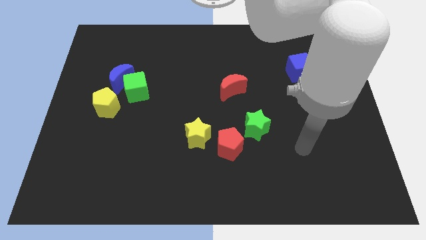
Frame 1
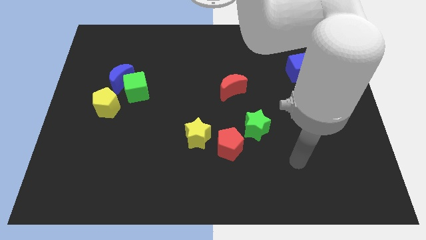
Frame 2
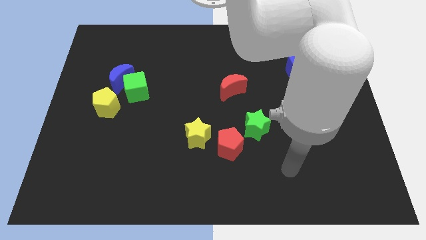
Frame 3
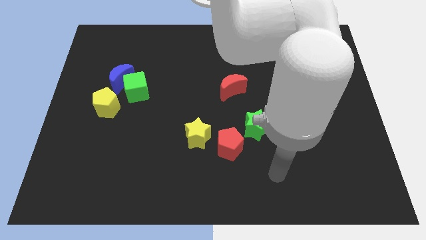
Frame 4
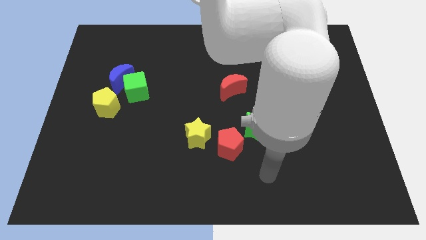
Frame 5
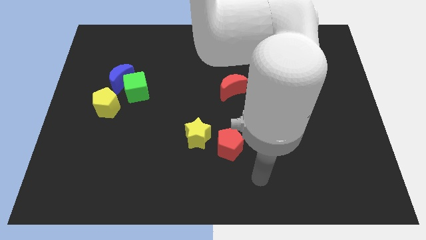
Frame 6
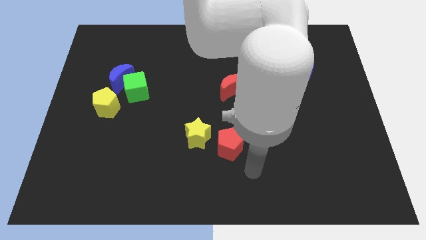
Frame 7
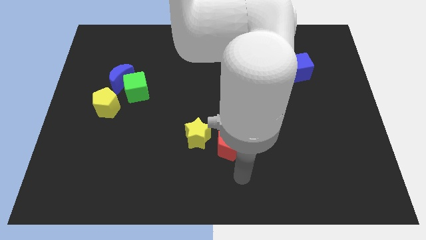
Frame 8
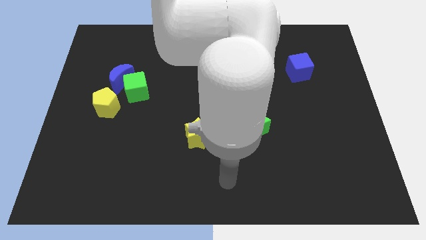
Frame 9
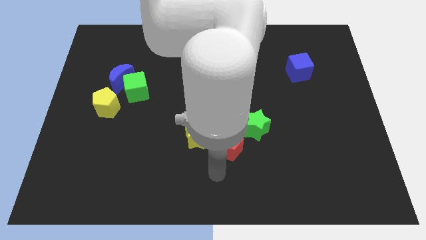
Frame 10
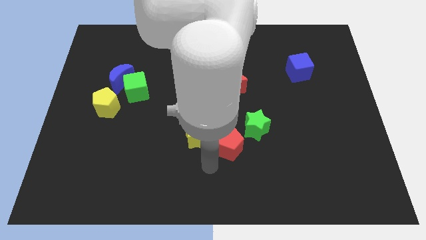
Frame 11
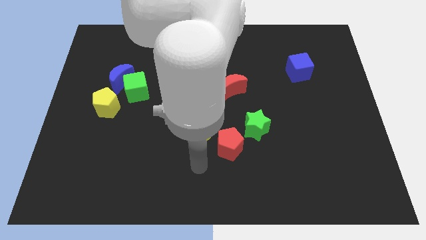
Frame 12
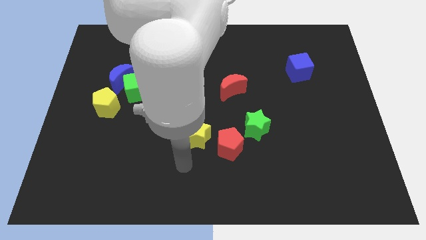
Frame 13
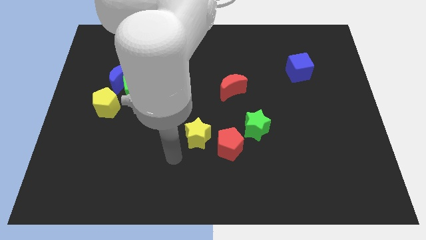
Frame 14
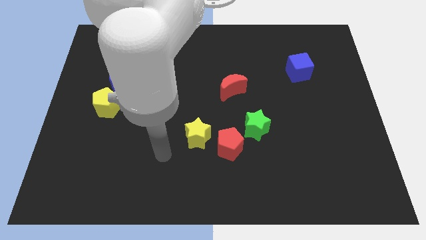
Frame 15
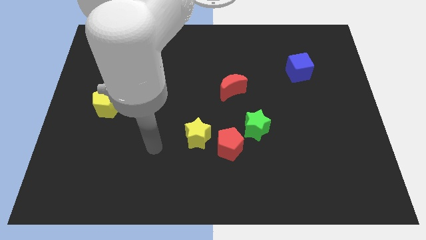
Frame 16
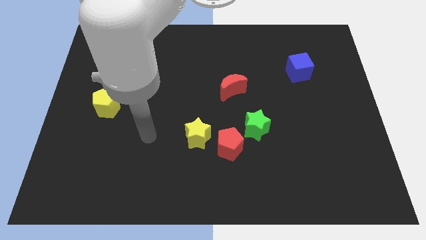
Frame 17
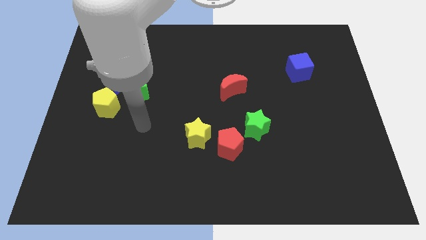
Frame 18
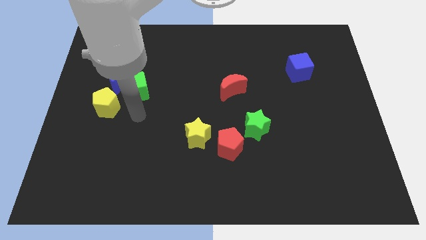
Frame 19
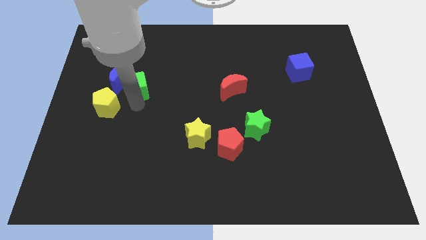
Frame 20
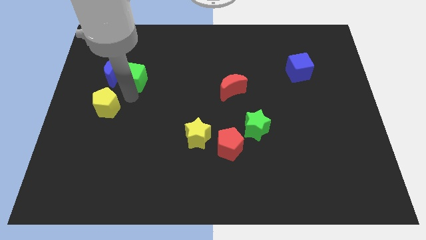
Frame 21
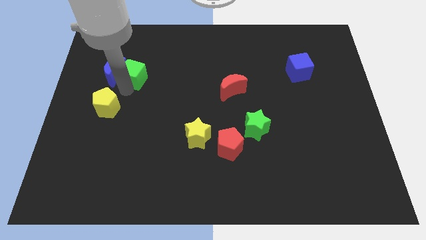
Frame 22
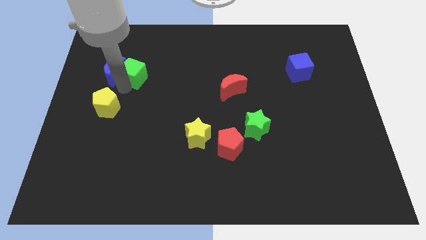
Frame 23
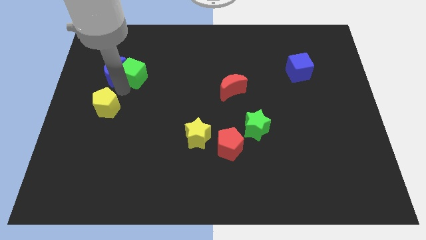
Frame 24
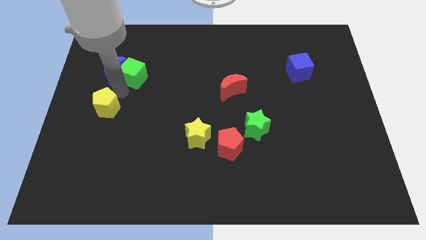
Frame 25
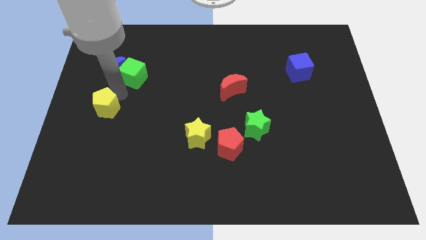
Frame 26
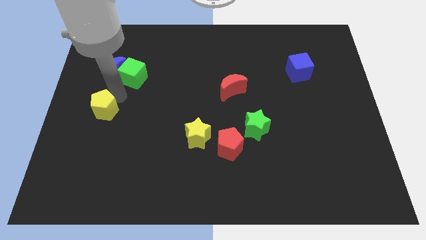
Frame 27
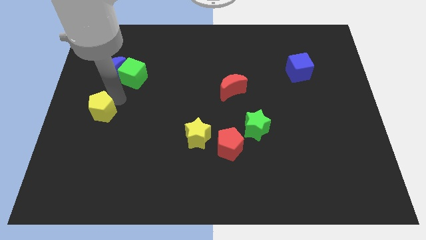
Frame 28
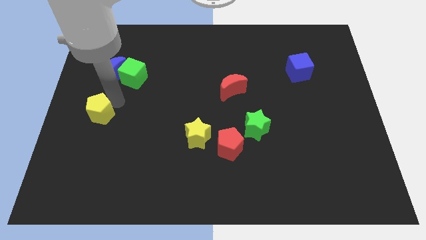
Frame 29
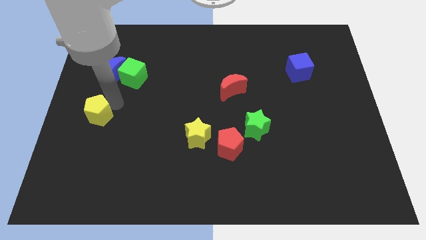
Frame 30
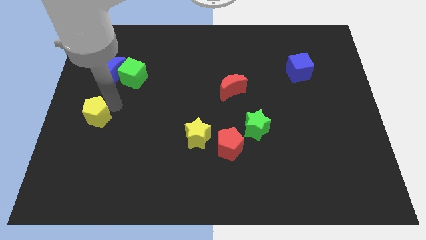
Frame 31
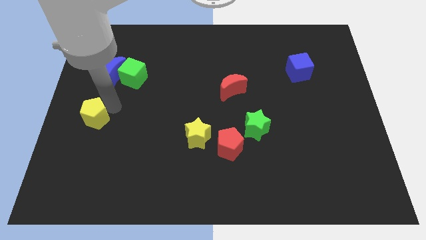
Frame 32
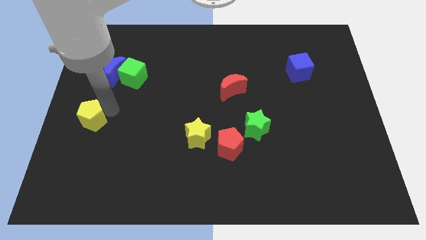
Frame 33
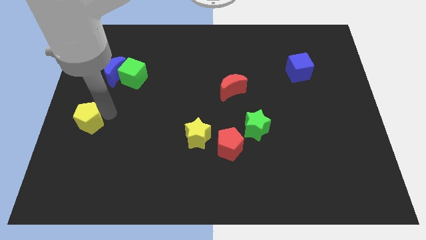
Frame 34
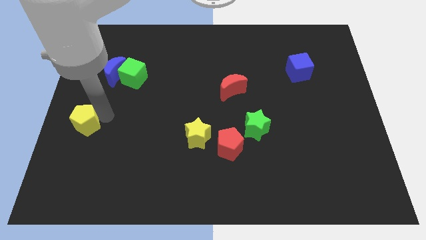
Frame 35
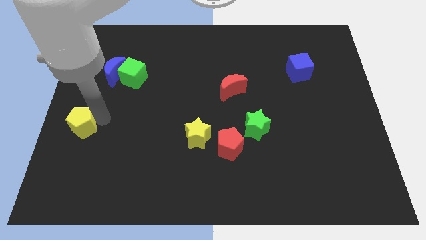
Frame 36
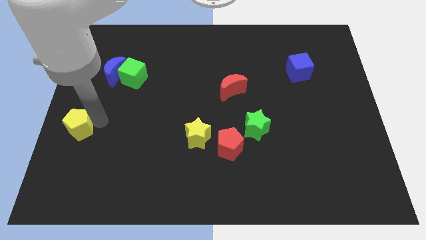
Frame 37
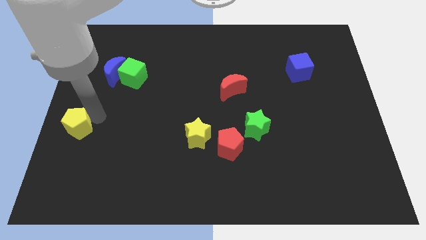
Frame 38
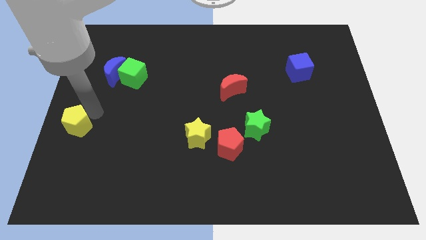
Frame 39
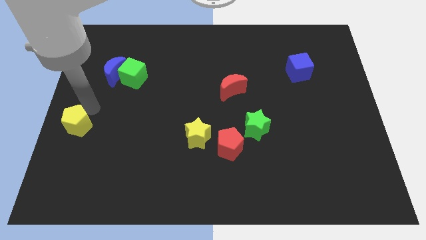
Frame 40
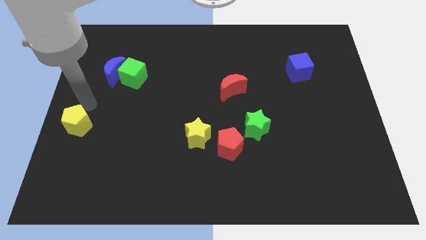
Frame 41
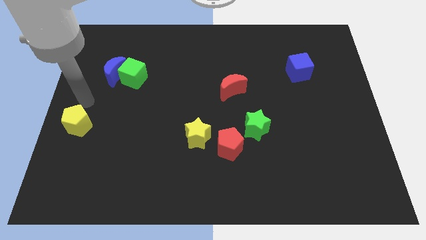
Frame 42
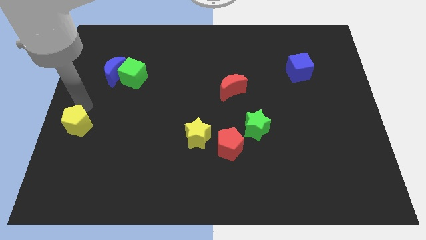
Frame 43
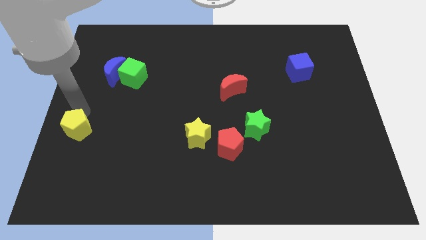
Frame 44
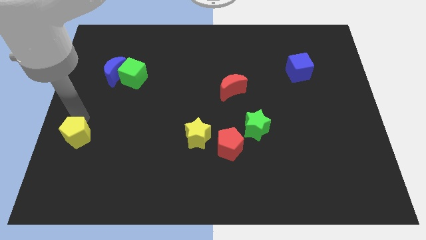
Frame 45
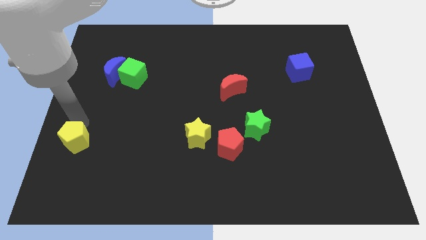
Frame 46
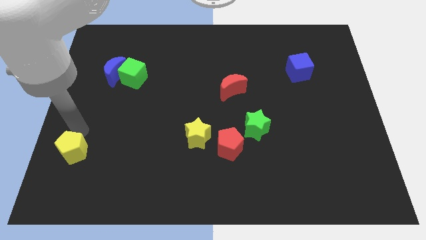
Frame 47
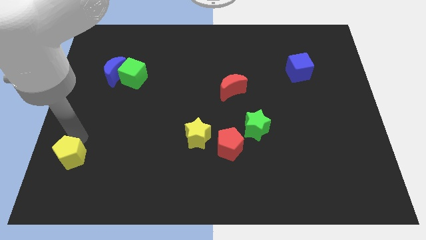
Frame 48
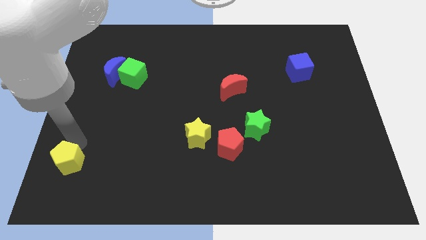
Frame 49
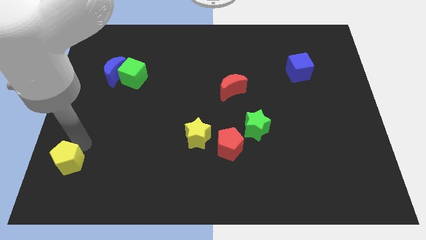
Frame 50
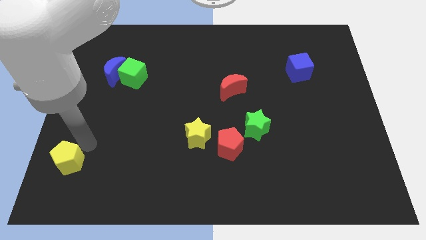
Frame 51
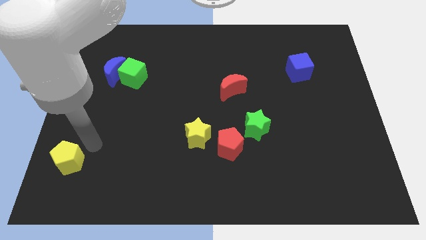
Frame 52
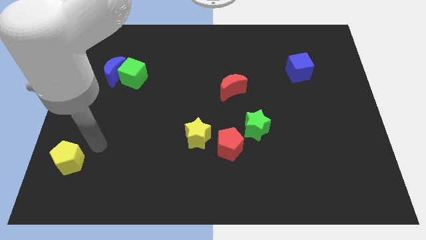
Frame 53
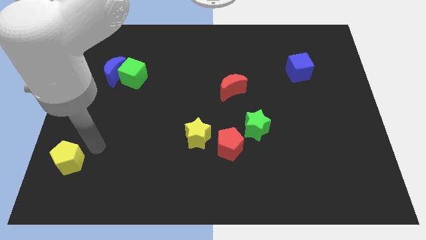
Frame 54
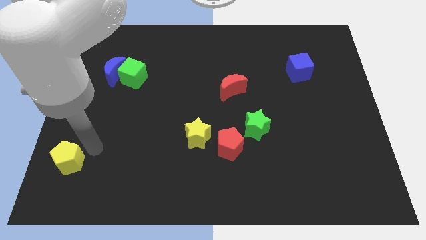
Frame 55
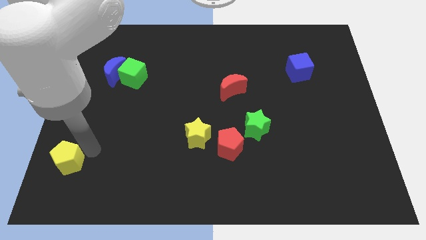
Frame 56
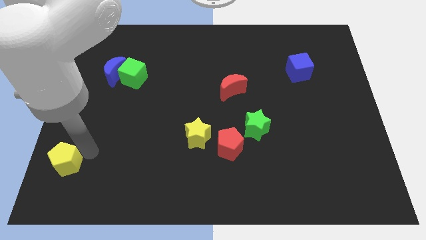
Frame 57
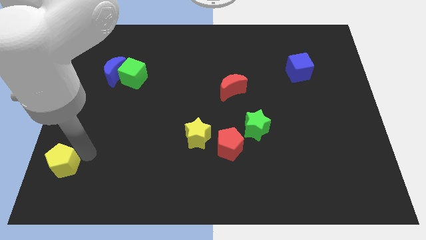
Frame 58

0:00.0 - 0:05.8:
slide the yellow pentagon to the bottom left corner
